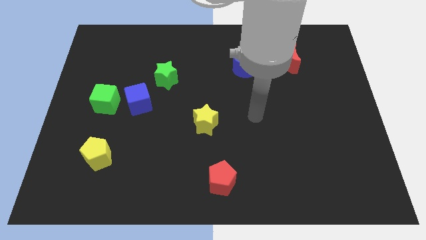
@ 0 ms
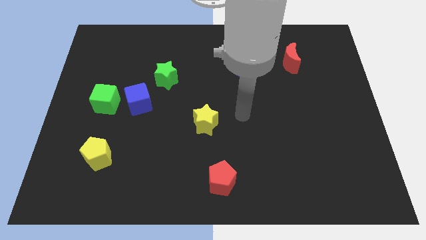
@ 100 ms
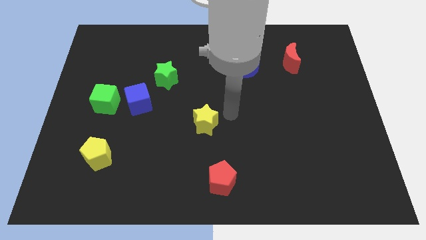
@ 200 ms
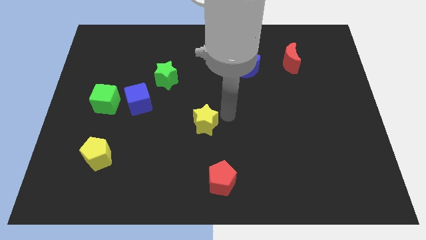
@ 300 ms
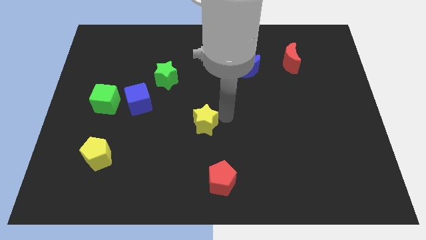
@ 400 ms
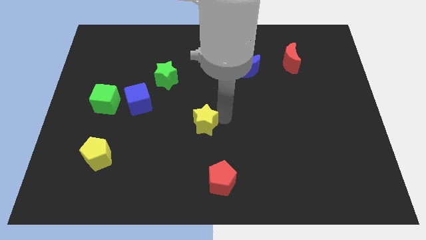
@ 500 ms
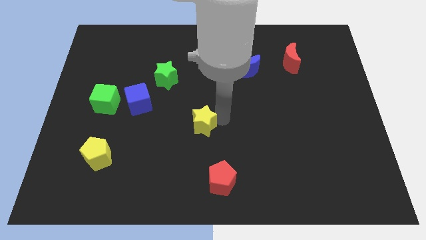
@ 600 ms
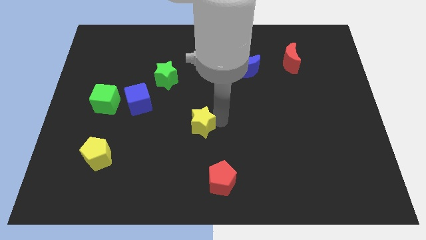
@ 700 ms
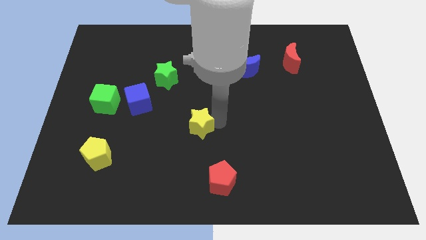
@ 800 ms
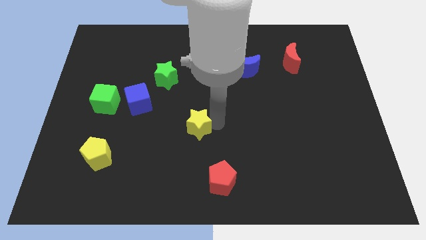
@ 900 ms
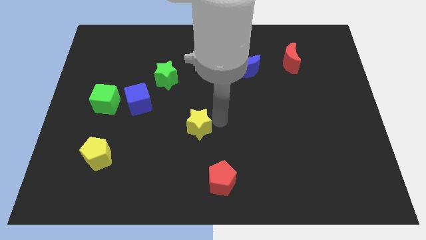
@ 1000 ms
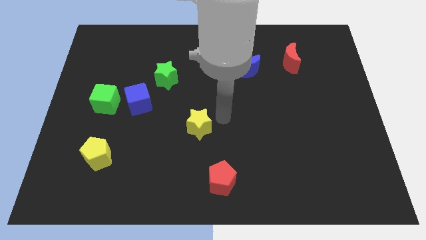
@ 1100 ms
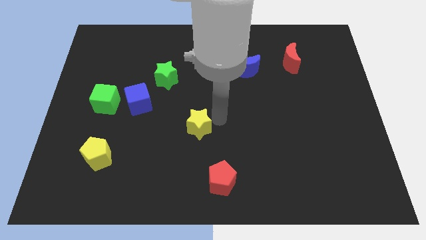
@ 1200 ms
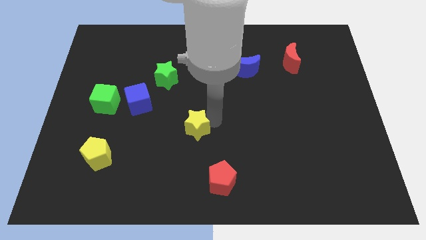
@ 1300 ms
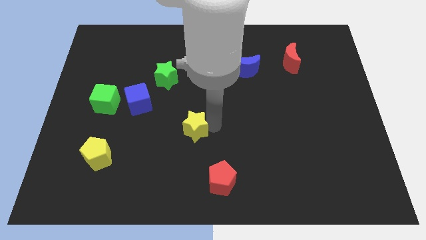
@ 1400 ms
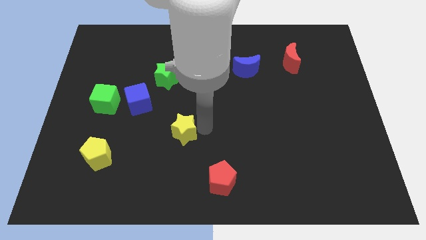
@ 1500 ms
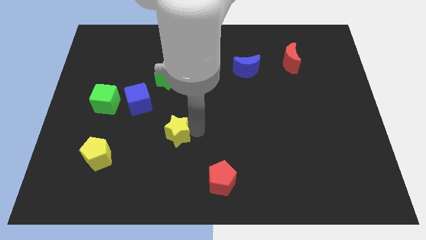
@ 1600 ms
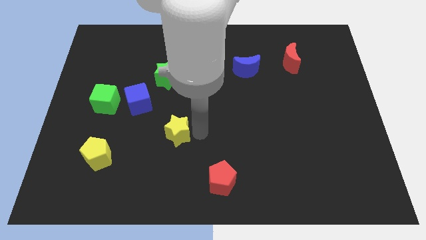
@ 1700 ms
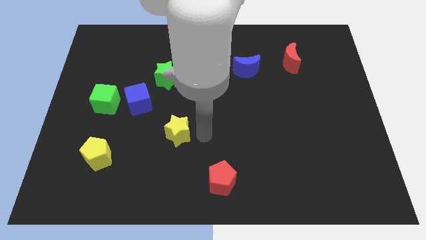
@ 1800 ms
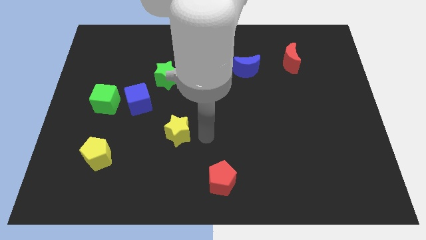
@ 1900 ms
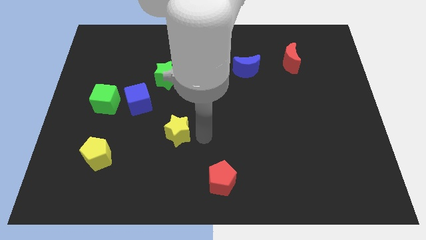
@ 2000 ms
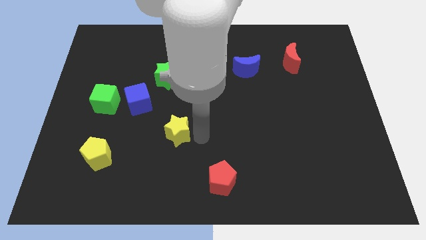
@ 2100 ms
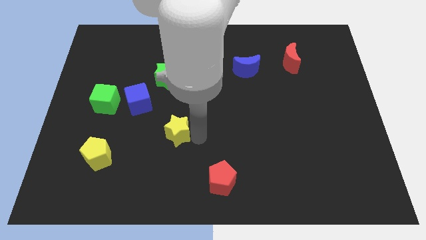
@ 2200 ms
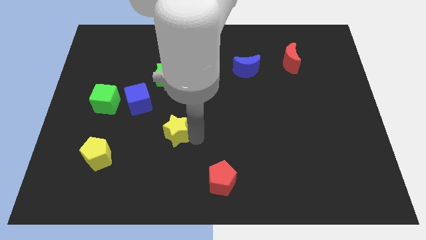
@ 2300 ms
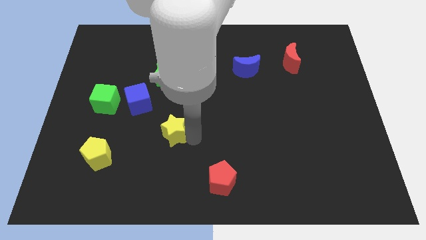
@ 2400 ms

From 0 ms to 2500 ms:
push the yellow star to the left somewhat

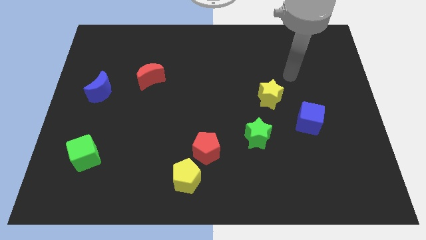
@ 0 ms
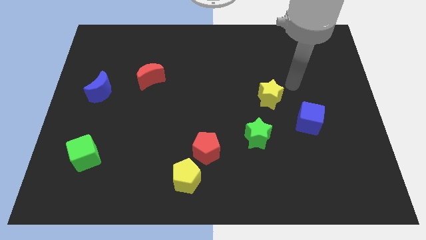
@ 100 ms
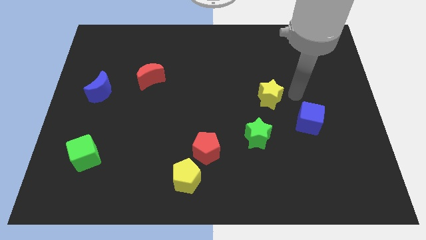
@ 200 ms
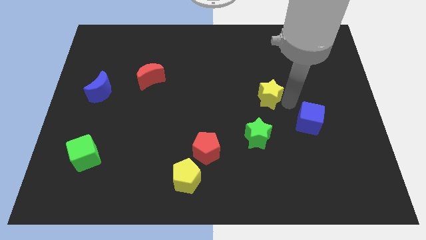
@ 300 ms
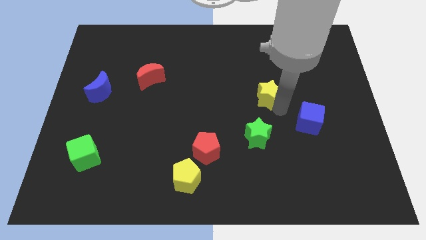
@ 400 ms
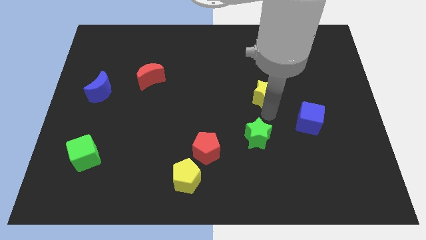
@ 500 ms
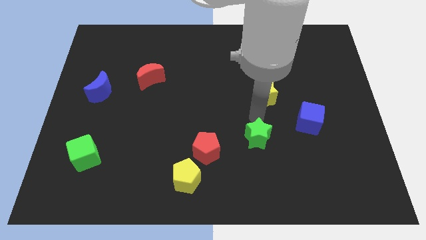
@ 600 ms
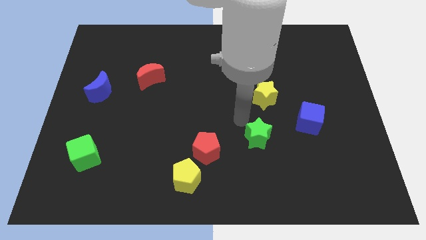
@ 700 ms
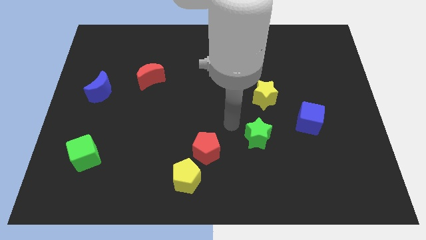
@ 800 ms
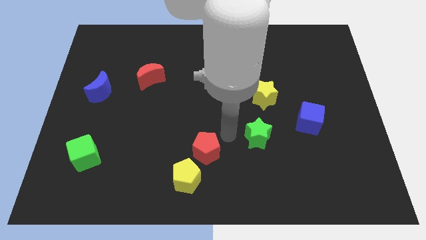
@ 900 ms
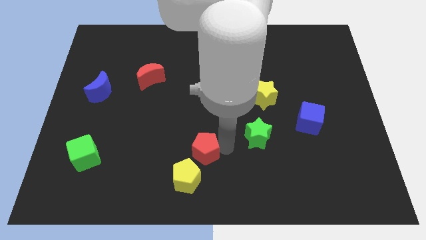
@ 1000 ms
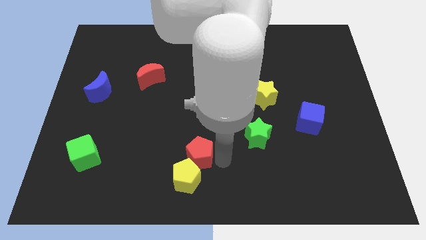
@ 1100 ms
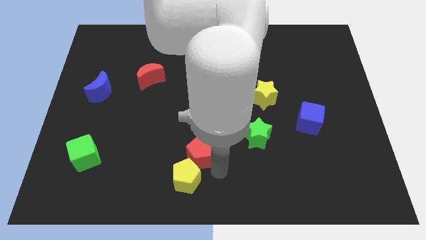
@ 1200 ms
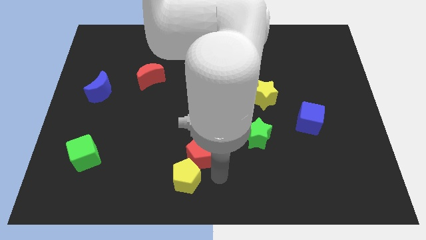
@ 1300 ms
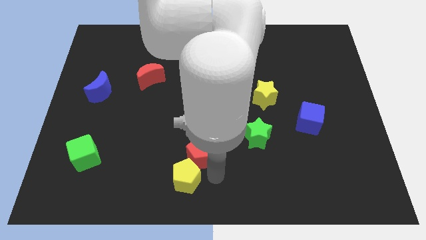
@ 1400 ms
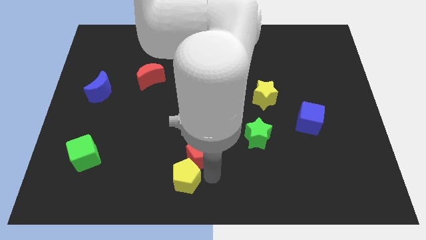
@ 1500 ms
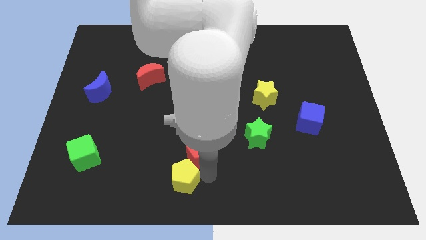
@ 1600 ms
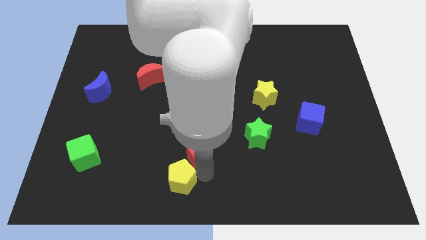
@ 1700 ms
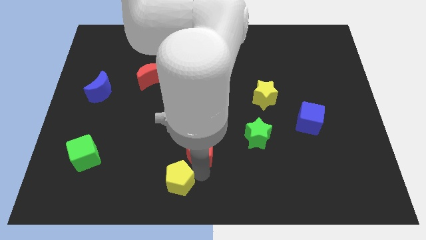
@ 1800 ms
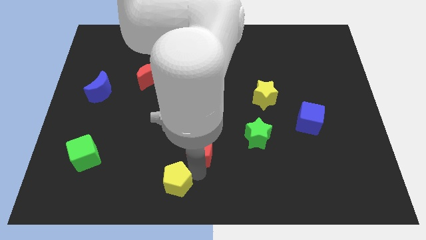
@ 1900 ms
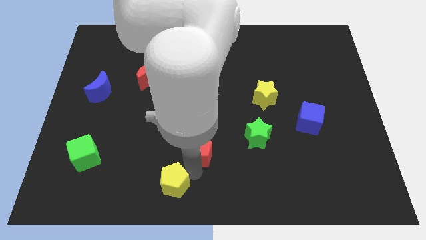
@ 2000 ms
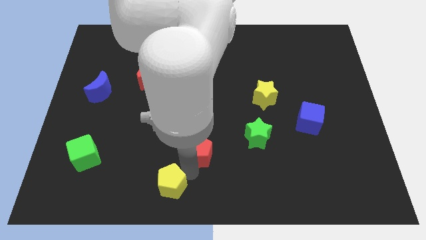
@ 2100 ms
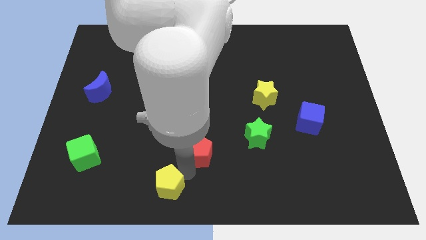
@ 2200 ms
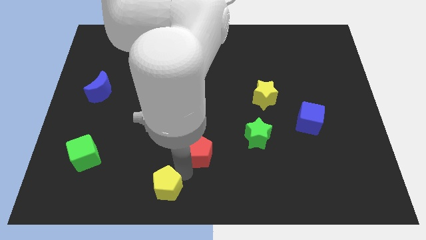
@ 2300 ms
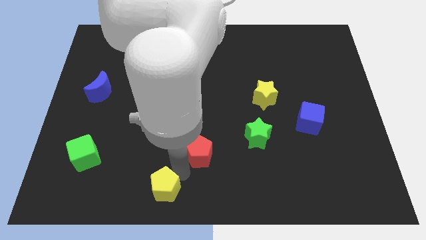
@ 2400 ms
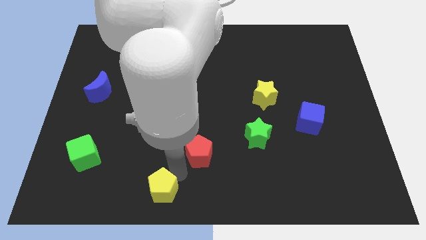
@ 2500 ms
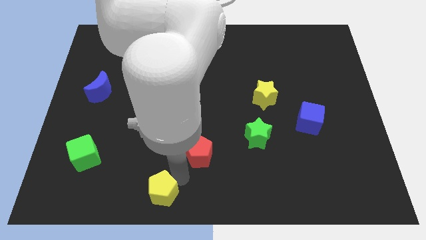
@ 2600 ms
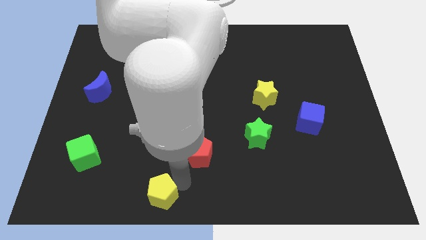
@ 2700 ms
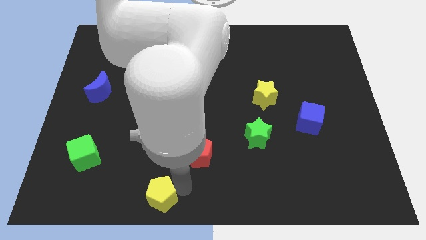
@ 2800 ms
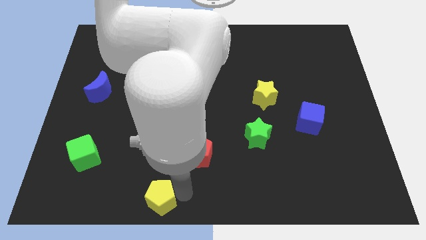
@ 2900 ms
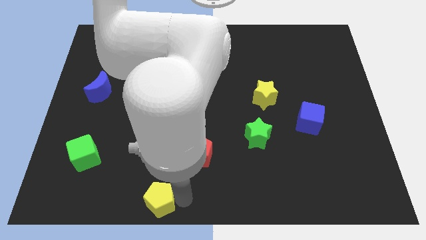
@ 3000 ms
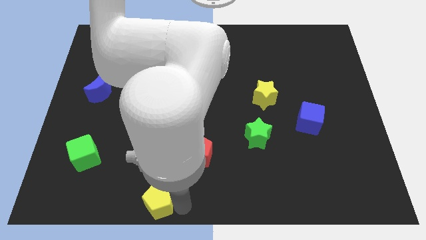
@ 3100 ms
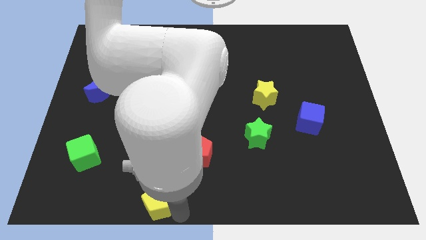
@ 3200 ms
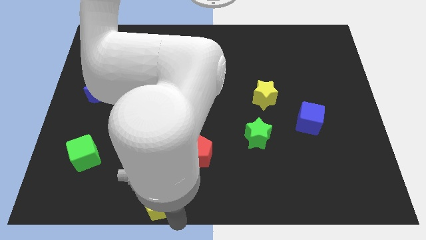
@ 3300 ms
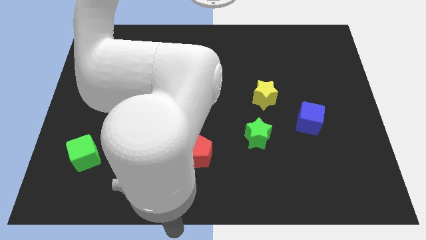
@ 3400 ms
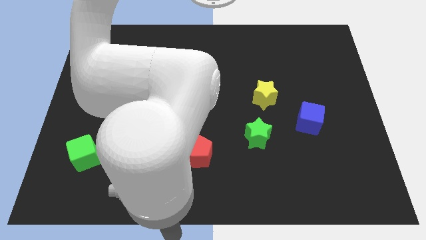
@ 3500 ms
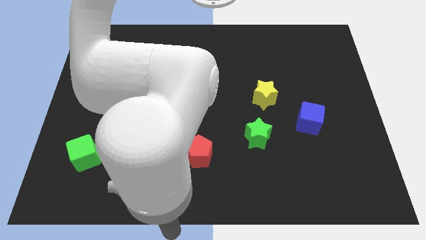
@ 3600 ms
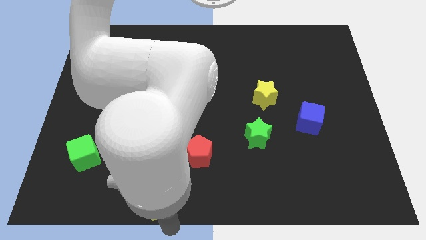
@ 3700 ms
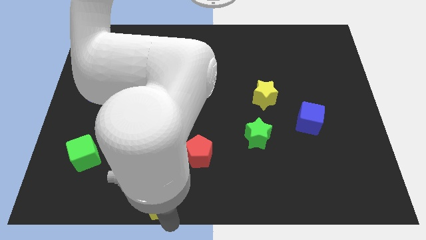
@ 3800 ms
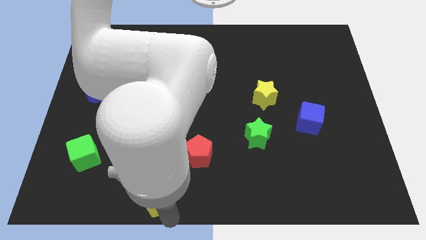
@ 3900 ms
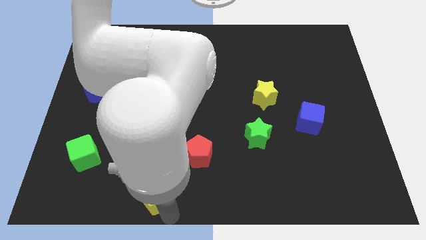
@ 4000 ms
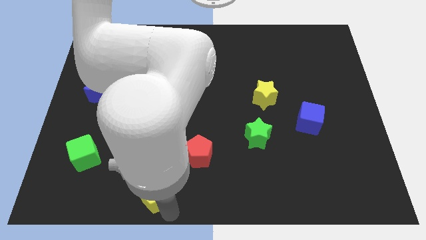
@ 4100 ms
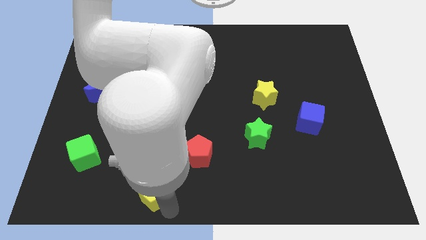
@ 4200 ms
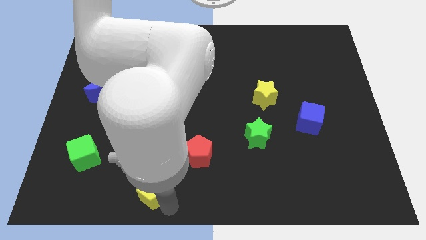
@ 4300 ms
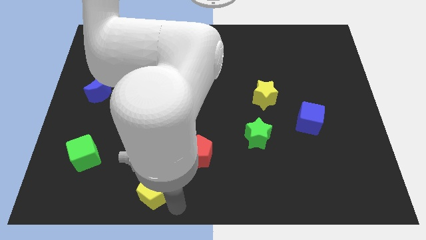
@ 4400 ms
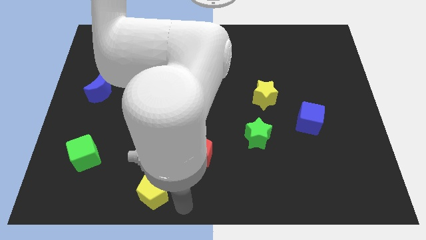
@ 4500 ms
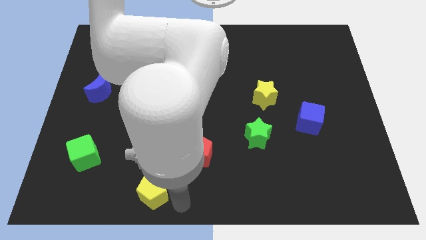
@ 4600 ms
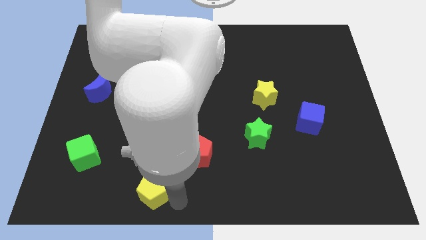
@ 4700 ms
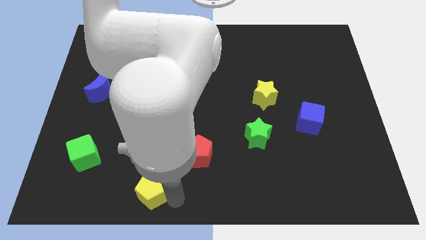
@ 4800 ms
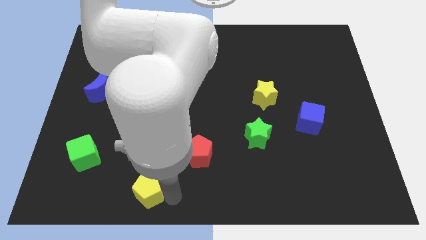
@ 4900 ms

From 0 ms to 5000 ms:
slightly slide the yellow pentagon to the left

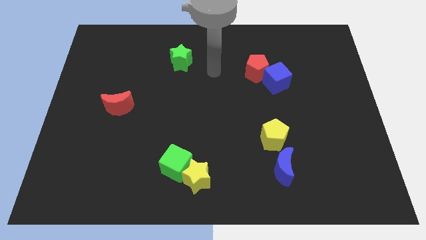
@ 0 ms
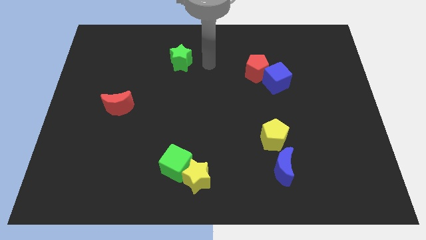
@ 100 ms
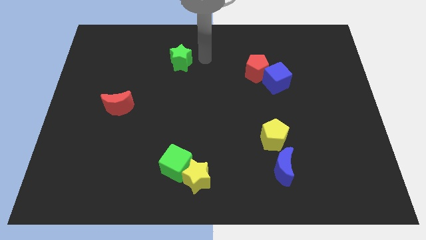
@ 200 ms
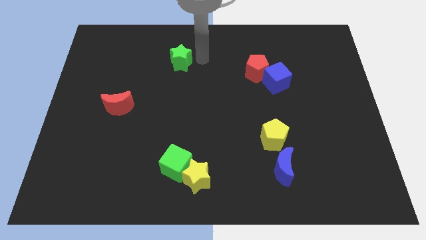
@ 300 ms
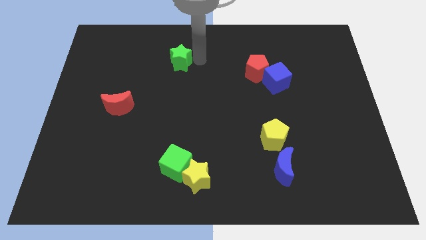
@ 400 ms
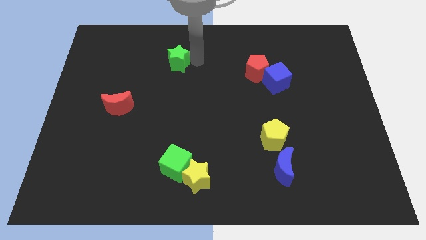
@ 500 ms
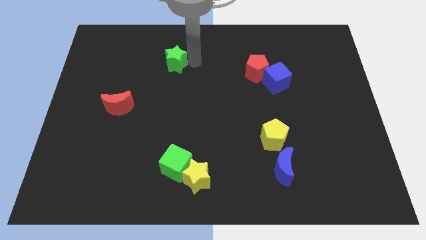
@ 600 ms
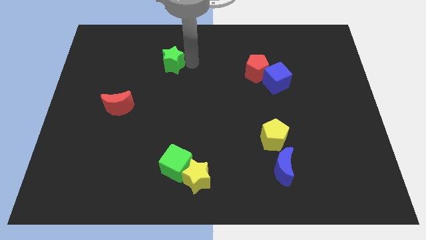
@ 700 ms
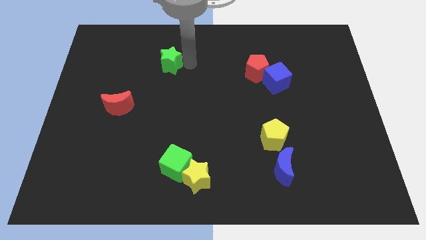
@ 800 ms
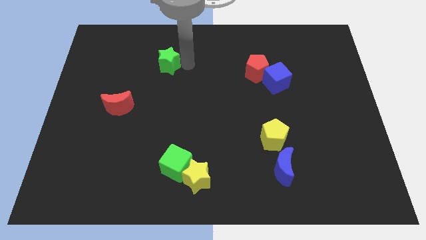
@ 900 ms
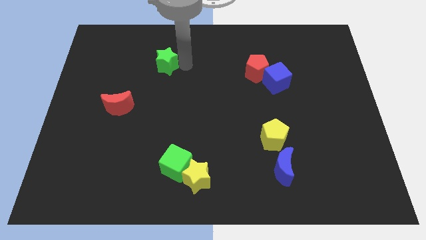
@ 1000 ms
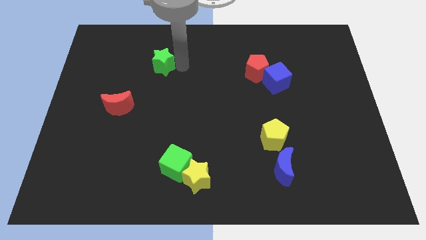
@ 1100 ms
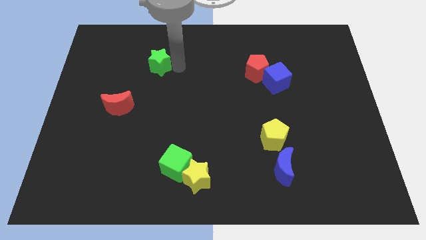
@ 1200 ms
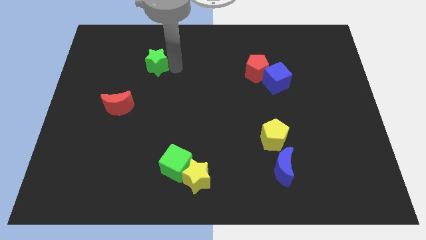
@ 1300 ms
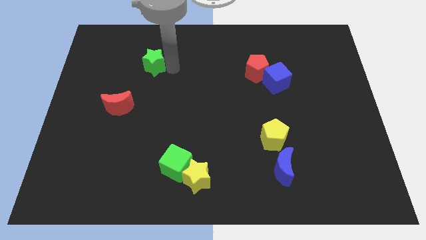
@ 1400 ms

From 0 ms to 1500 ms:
slightly slide the green star to the left
